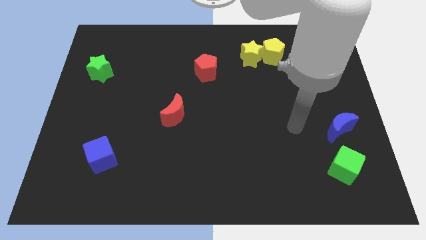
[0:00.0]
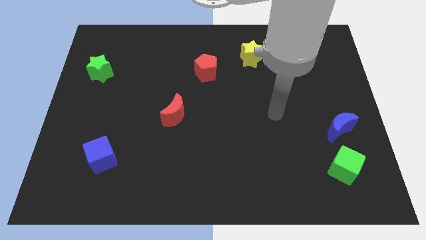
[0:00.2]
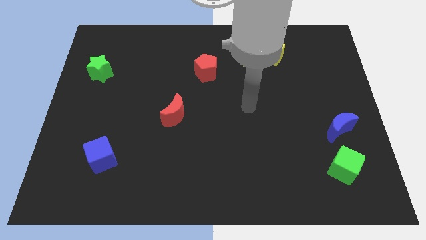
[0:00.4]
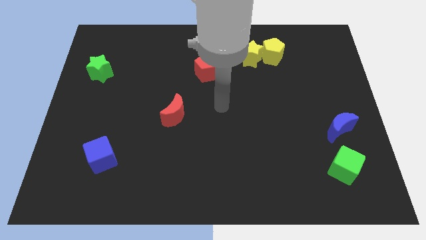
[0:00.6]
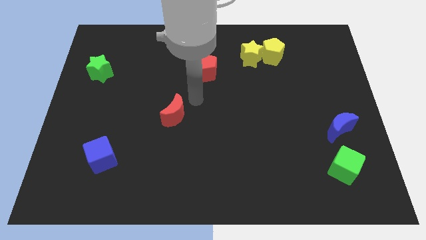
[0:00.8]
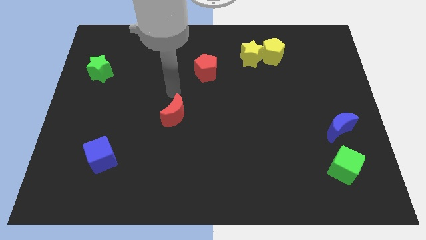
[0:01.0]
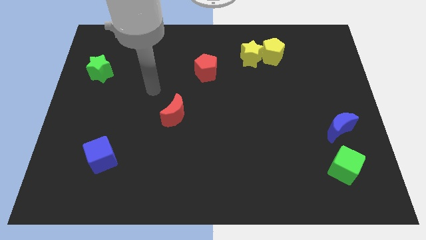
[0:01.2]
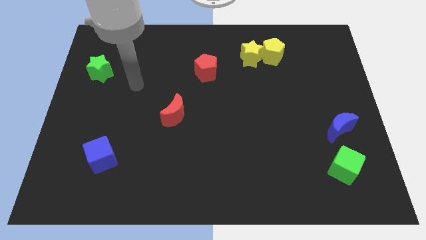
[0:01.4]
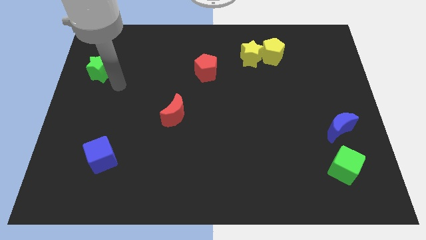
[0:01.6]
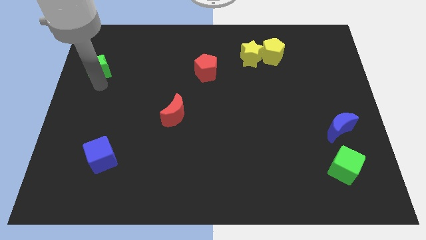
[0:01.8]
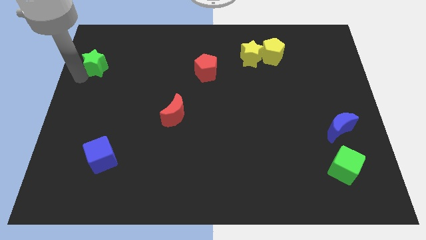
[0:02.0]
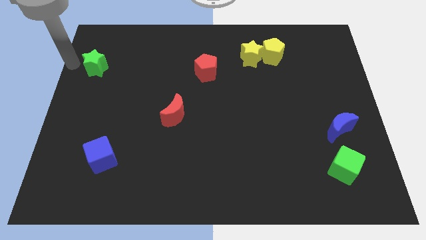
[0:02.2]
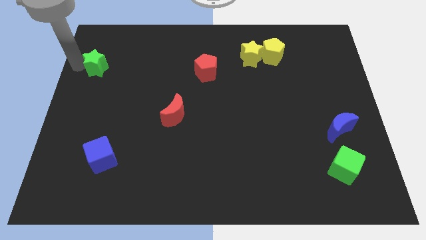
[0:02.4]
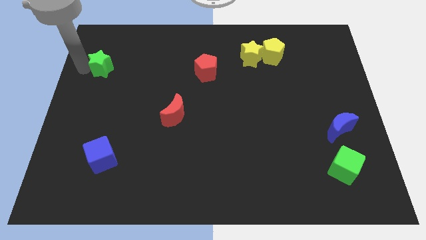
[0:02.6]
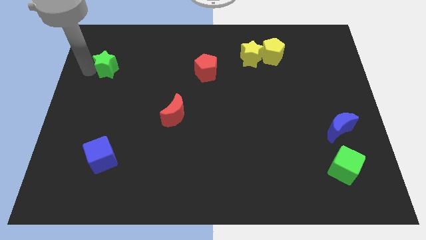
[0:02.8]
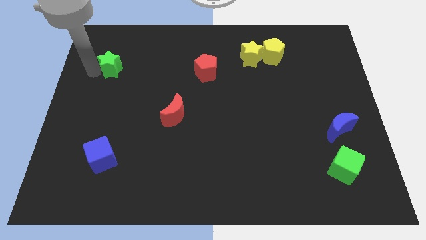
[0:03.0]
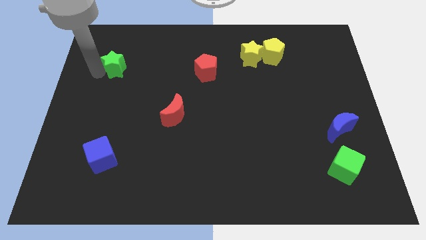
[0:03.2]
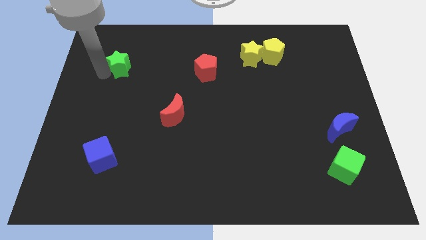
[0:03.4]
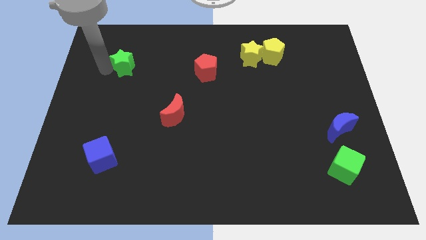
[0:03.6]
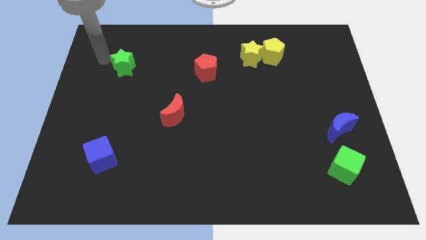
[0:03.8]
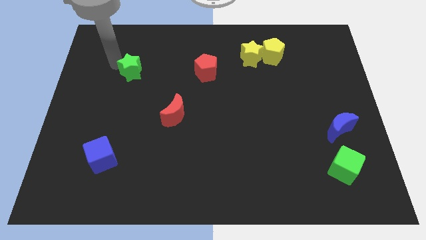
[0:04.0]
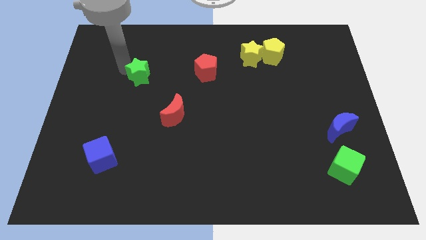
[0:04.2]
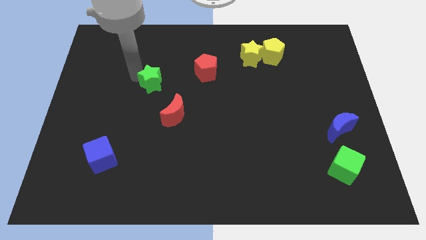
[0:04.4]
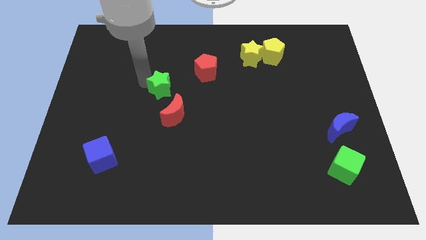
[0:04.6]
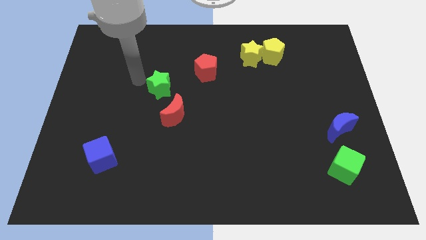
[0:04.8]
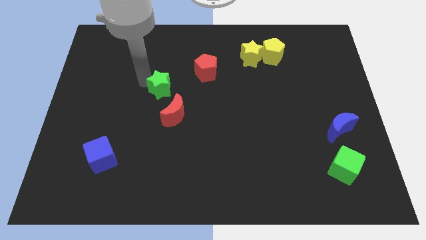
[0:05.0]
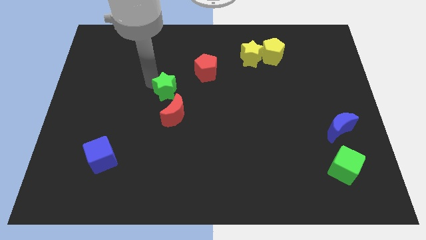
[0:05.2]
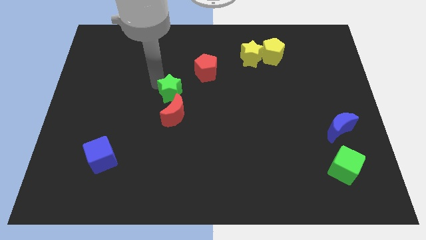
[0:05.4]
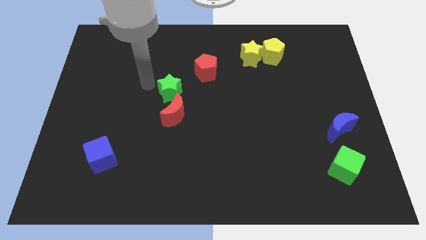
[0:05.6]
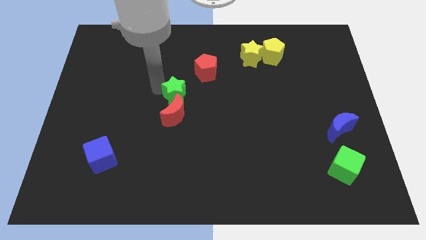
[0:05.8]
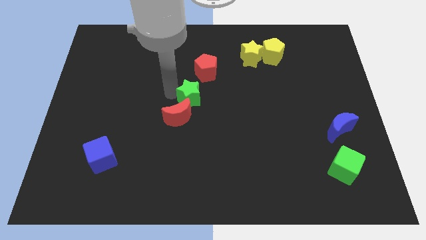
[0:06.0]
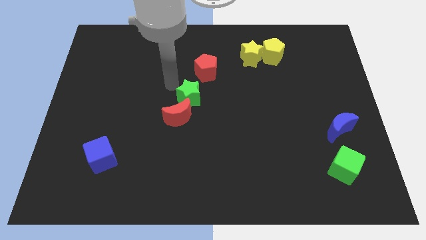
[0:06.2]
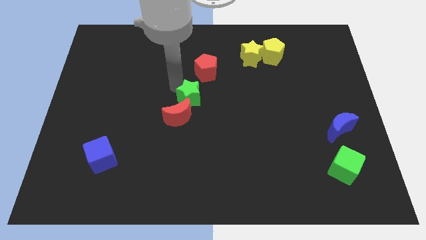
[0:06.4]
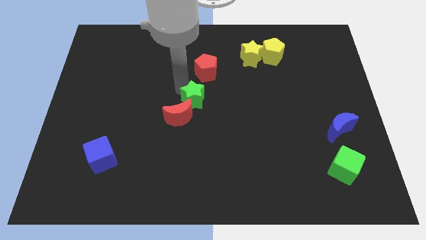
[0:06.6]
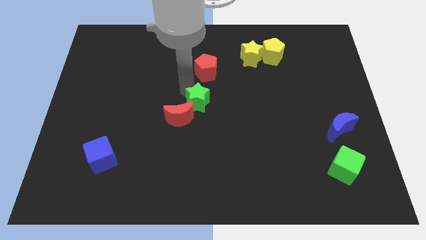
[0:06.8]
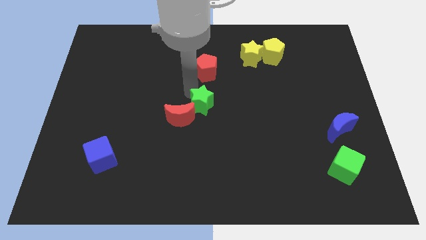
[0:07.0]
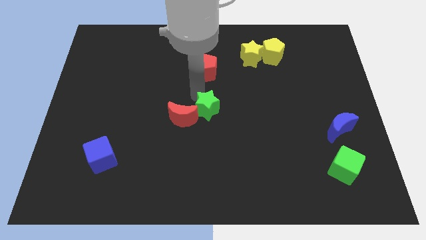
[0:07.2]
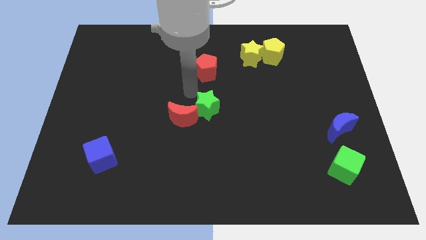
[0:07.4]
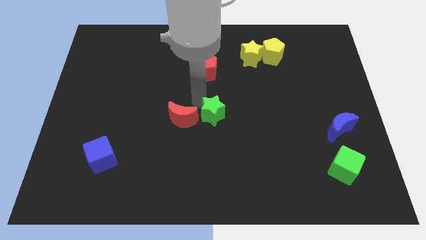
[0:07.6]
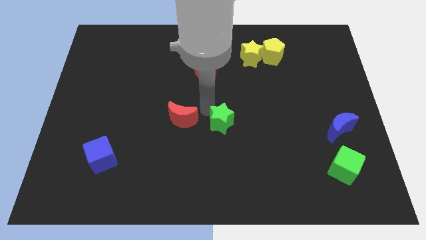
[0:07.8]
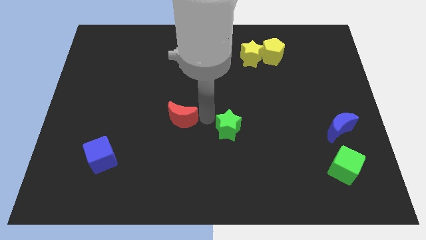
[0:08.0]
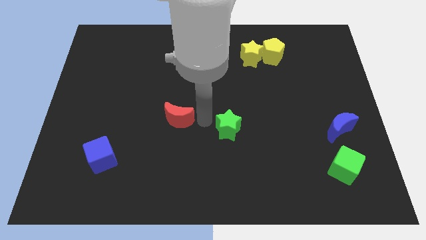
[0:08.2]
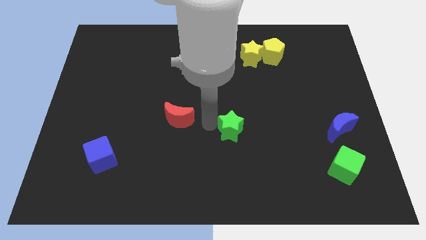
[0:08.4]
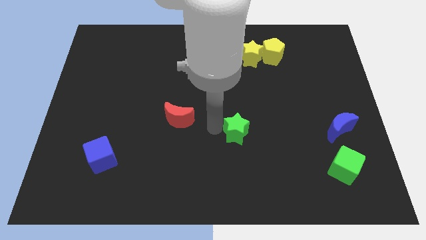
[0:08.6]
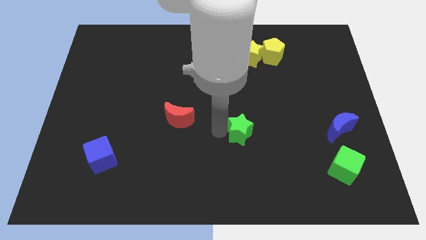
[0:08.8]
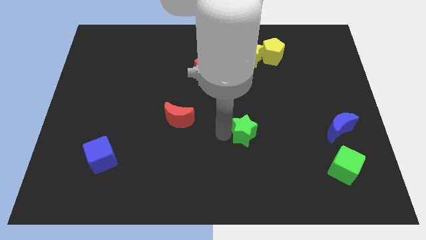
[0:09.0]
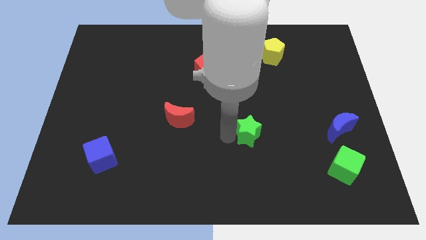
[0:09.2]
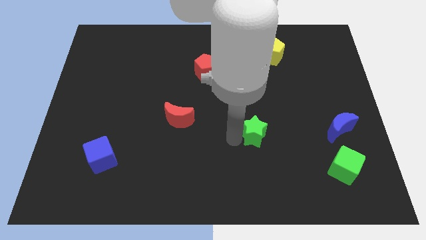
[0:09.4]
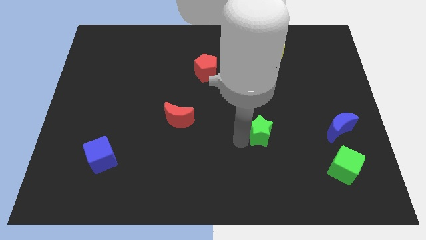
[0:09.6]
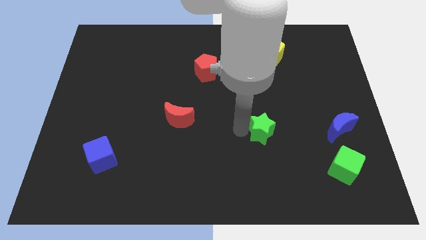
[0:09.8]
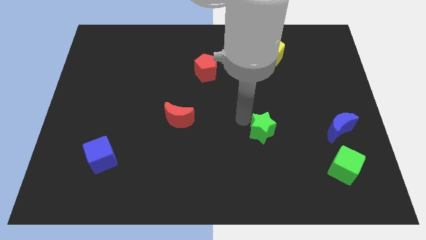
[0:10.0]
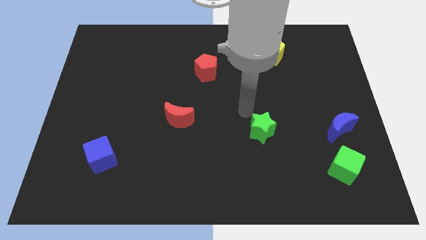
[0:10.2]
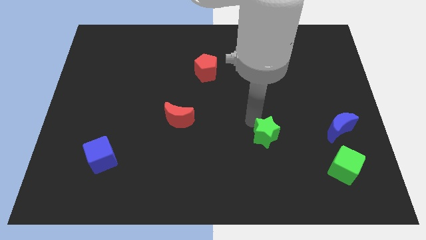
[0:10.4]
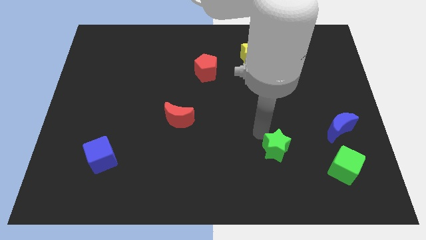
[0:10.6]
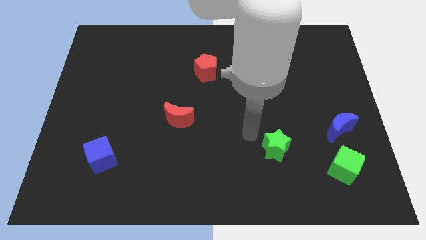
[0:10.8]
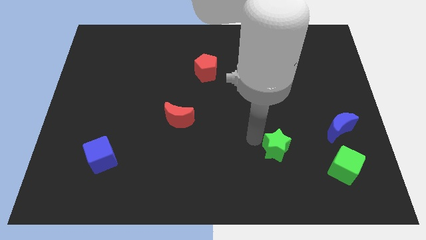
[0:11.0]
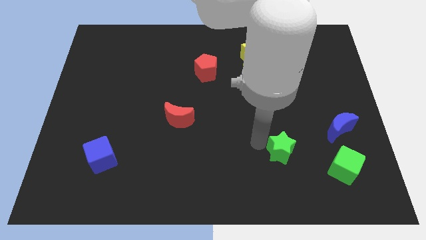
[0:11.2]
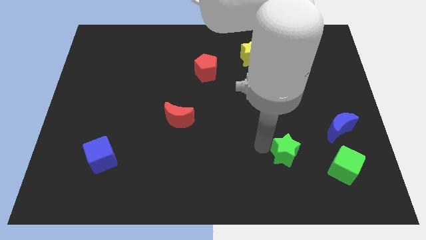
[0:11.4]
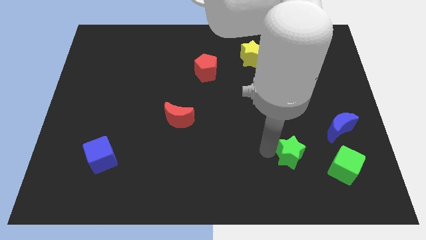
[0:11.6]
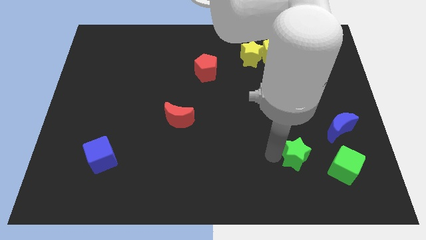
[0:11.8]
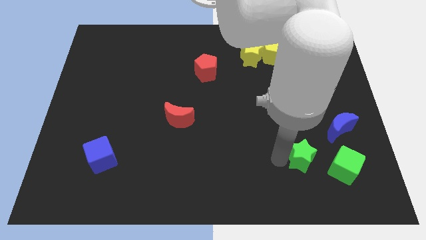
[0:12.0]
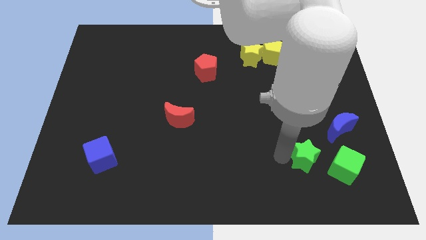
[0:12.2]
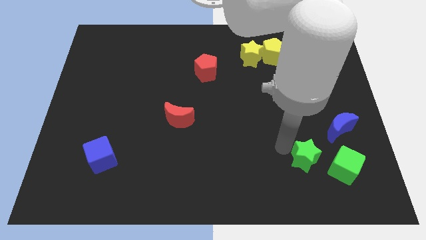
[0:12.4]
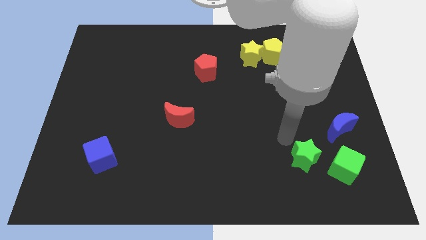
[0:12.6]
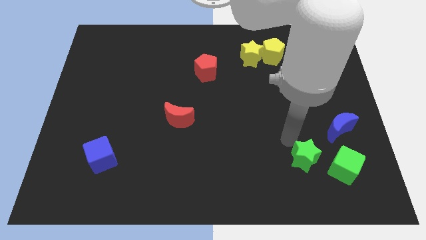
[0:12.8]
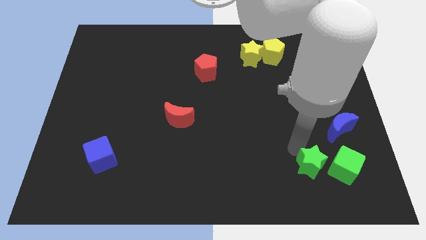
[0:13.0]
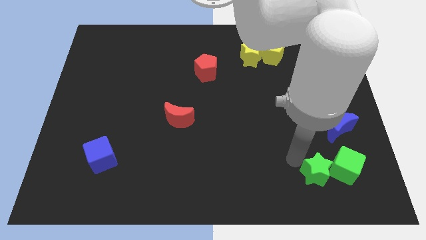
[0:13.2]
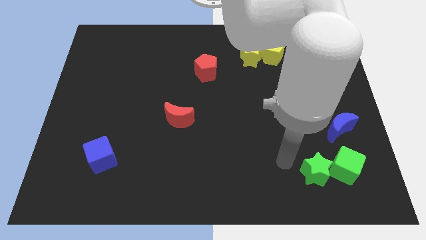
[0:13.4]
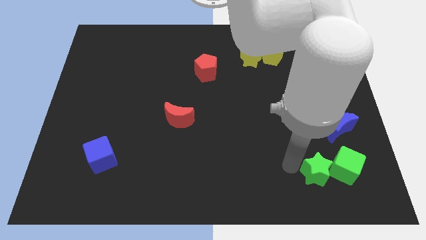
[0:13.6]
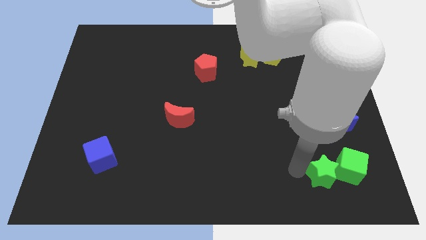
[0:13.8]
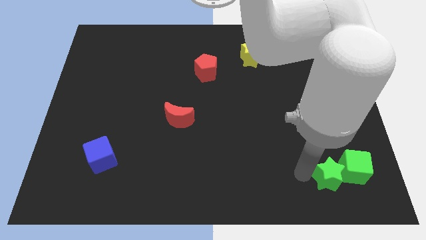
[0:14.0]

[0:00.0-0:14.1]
put the green star below the blue moon
